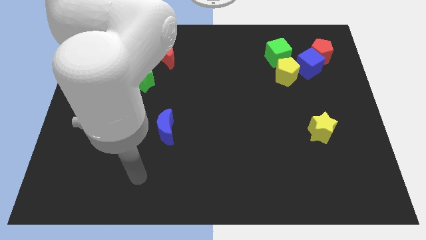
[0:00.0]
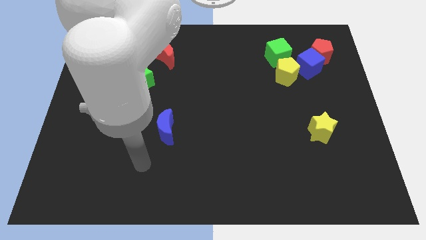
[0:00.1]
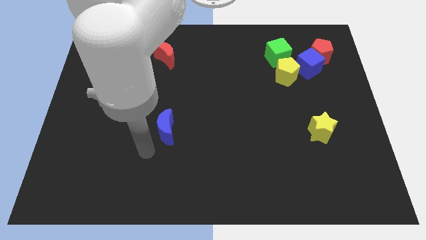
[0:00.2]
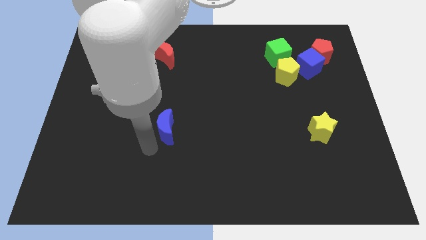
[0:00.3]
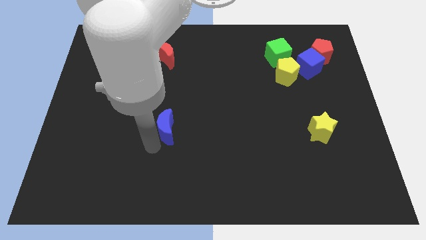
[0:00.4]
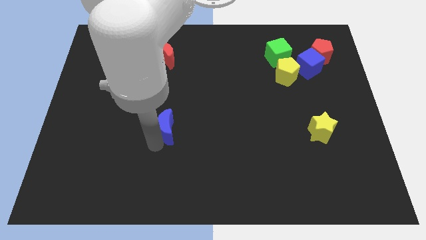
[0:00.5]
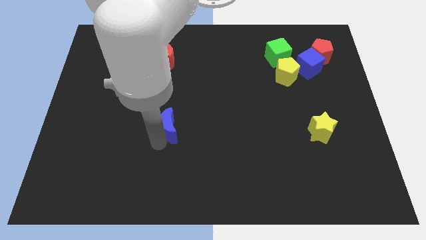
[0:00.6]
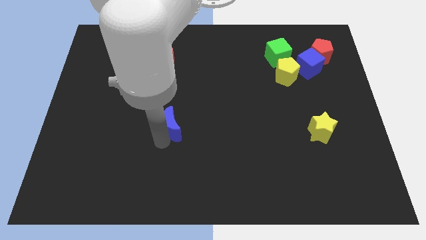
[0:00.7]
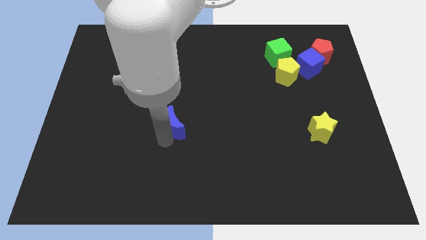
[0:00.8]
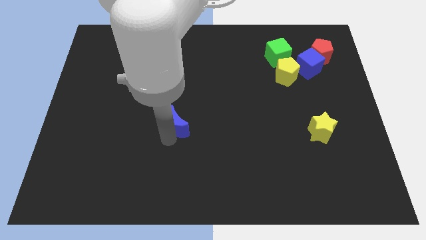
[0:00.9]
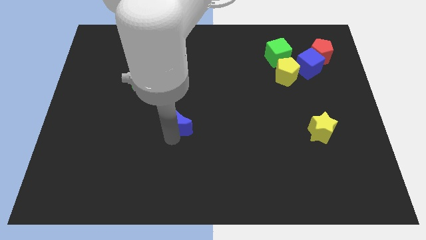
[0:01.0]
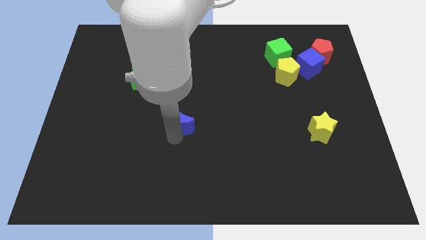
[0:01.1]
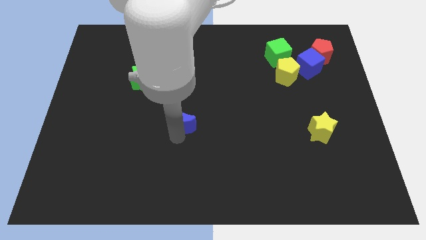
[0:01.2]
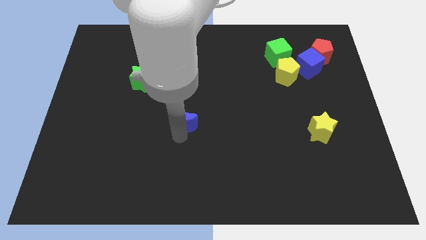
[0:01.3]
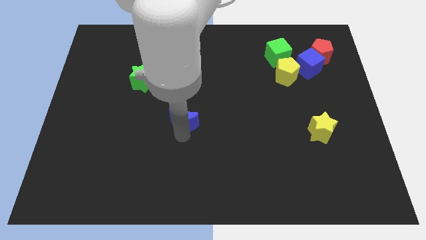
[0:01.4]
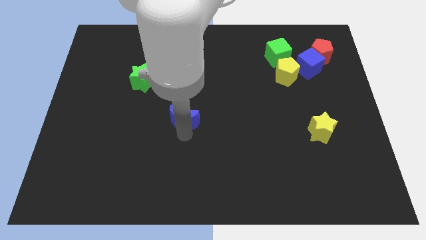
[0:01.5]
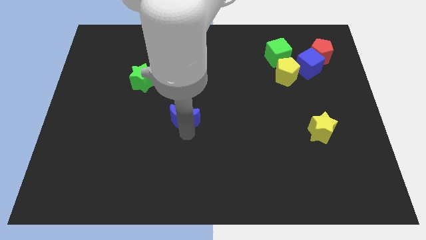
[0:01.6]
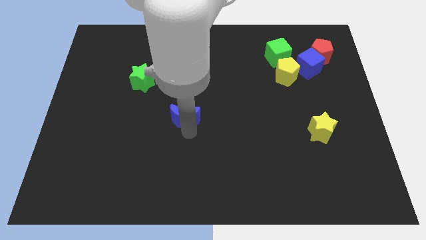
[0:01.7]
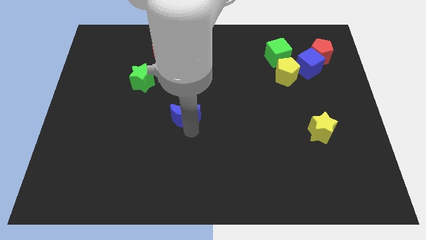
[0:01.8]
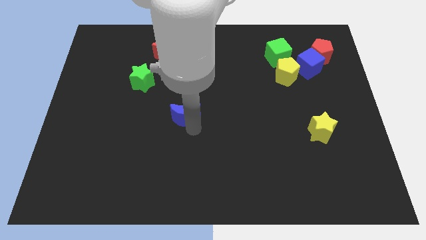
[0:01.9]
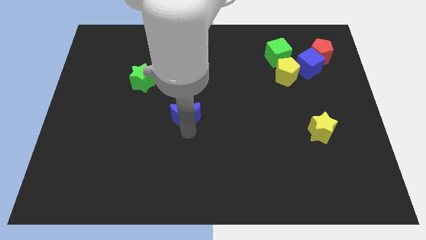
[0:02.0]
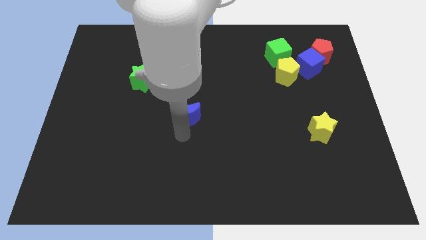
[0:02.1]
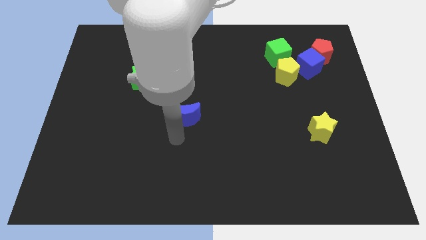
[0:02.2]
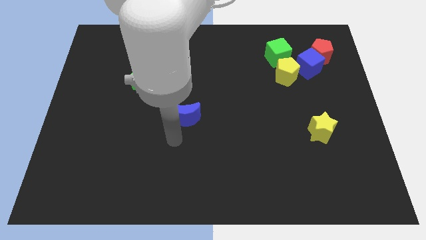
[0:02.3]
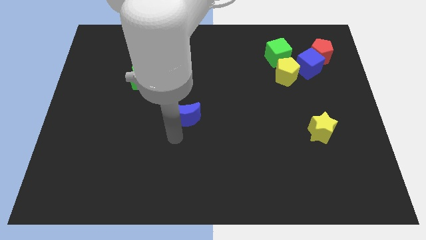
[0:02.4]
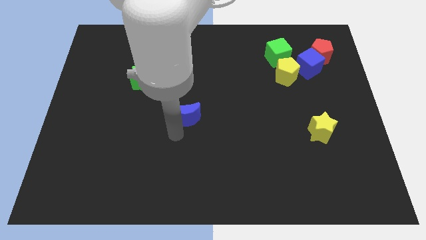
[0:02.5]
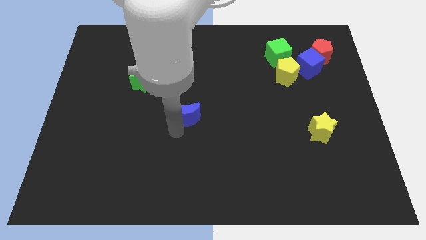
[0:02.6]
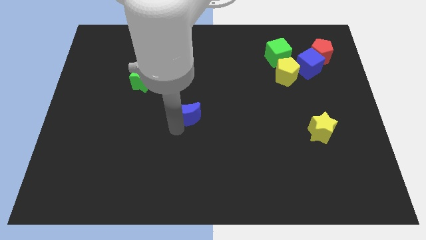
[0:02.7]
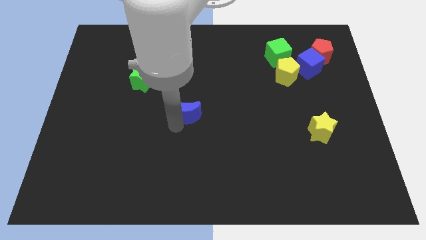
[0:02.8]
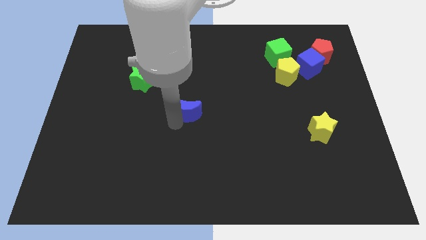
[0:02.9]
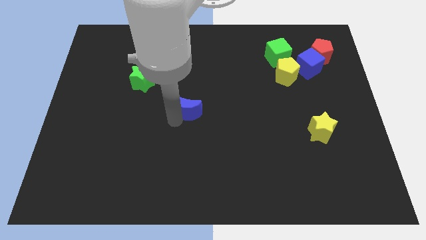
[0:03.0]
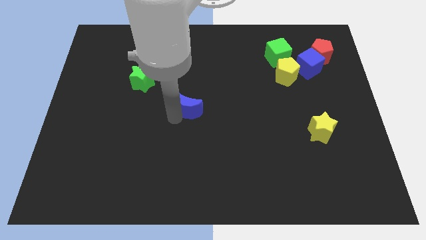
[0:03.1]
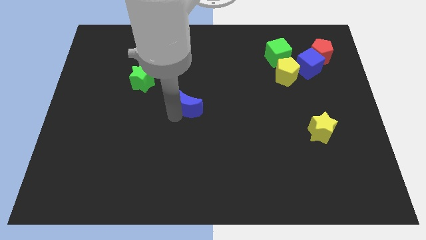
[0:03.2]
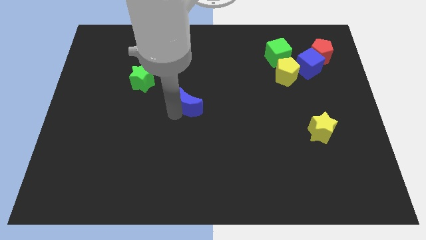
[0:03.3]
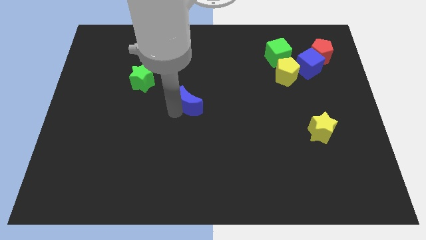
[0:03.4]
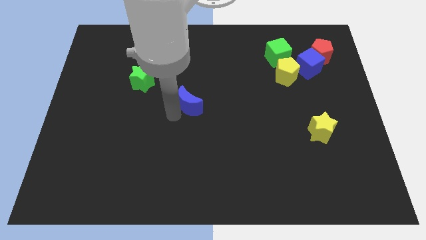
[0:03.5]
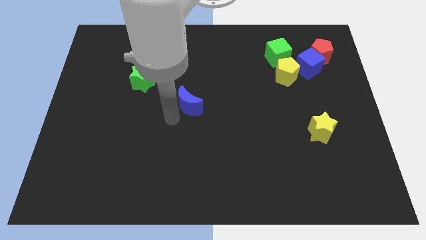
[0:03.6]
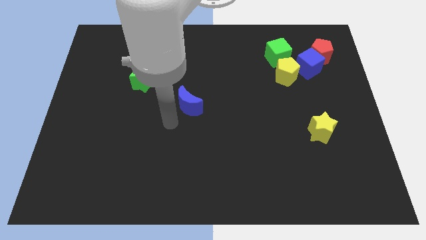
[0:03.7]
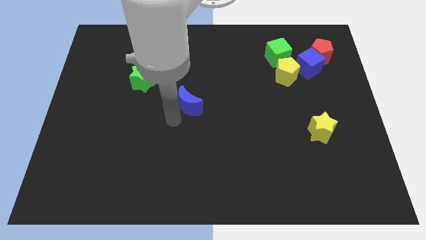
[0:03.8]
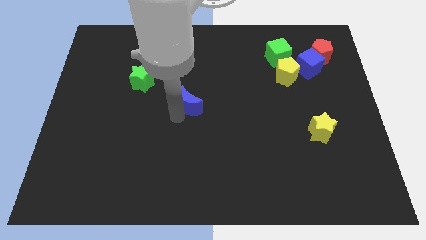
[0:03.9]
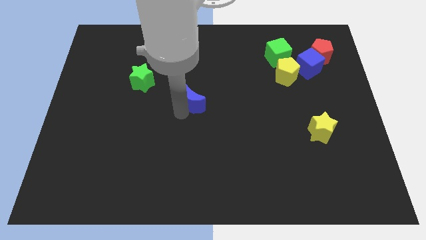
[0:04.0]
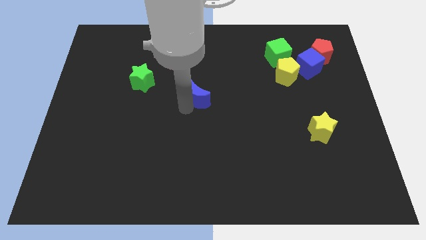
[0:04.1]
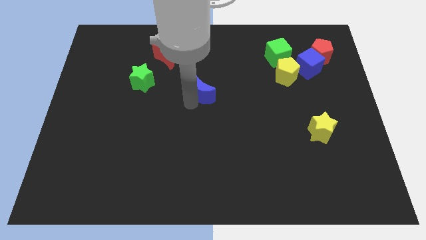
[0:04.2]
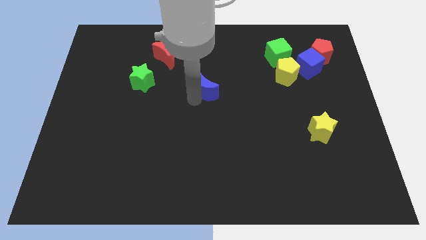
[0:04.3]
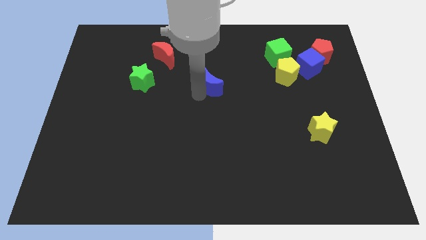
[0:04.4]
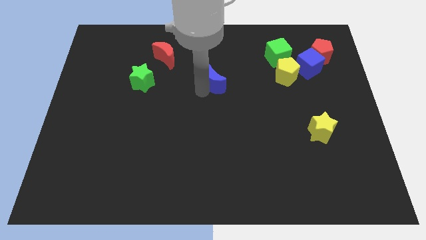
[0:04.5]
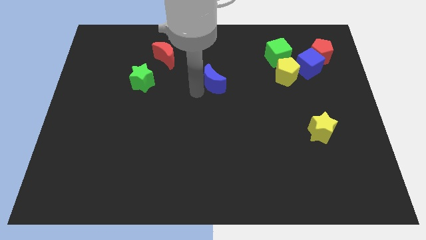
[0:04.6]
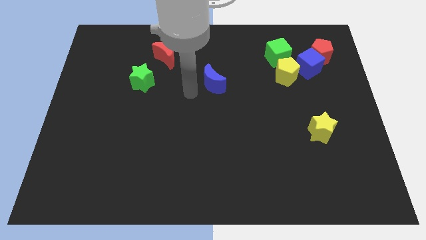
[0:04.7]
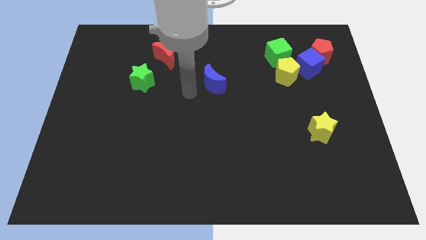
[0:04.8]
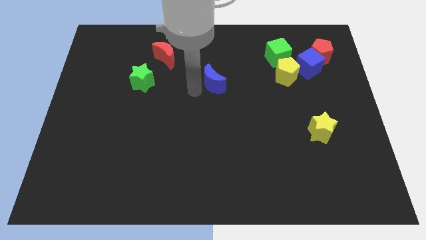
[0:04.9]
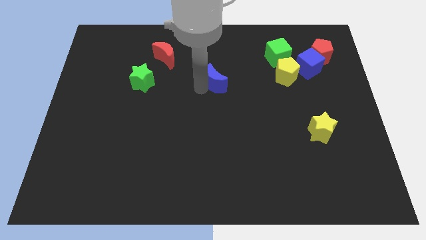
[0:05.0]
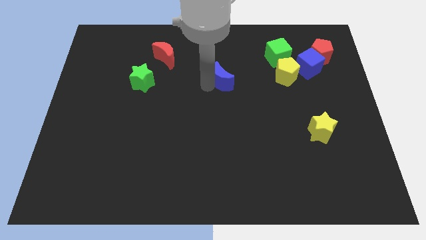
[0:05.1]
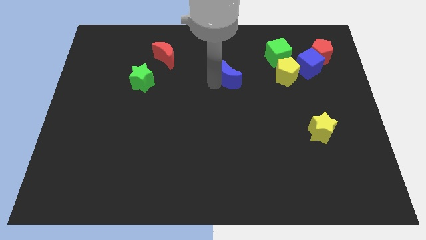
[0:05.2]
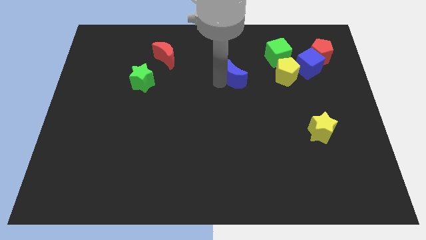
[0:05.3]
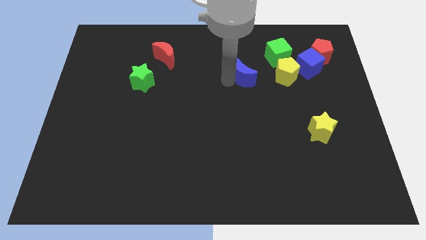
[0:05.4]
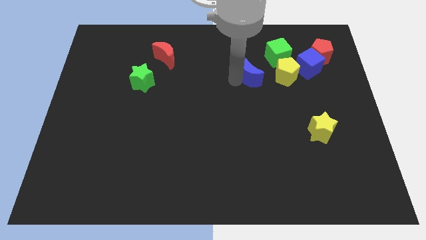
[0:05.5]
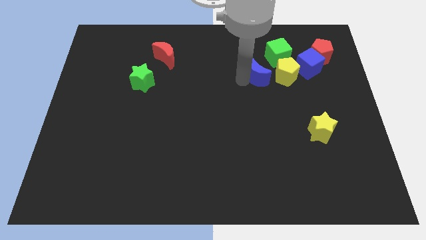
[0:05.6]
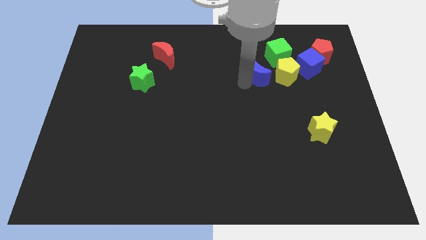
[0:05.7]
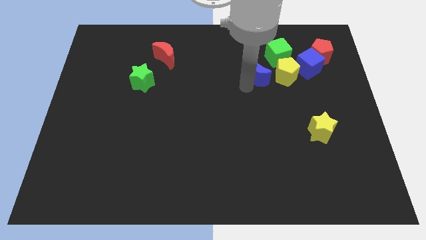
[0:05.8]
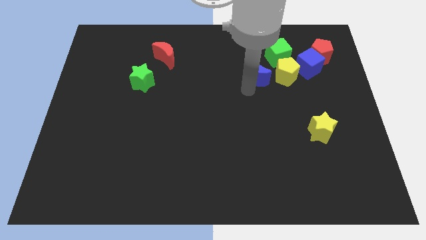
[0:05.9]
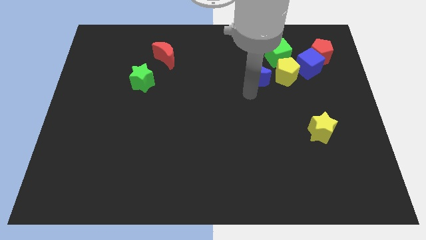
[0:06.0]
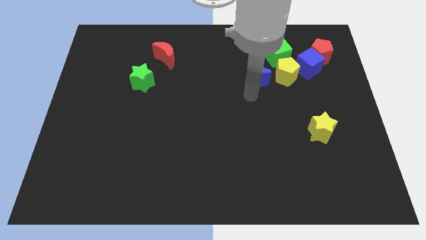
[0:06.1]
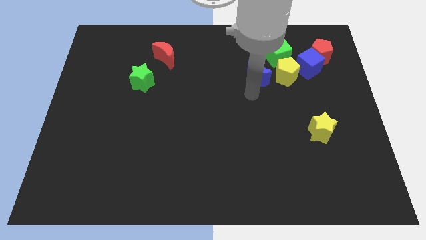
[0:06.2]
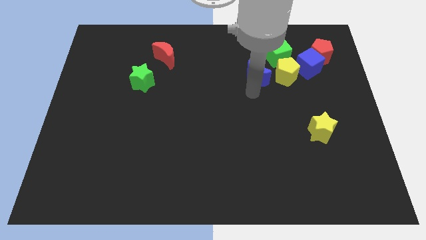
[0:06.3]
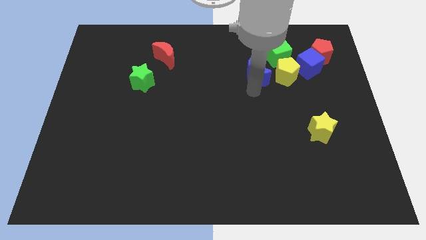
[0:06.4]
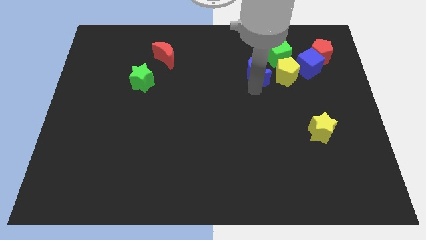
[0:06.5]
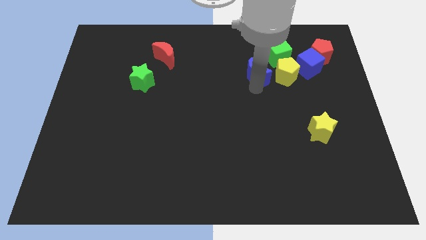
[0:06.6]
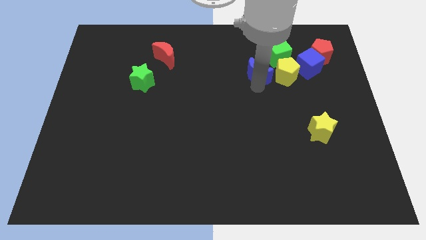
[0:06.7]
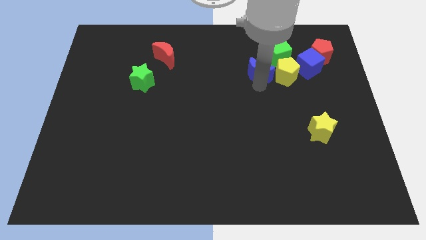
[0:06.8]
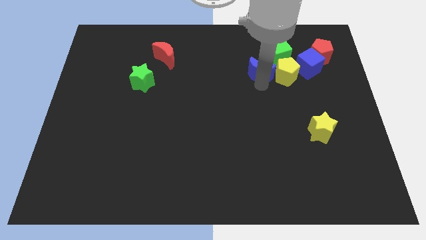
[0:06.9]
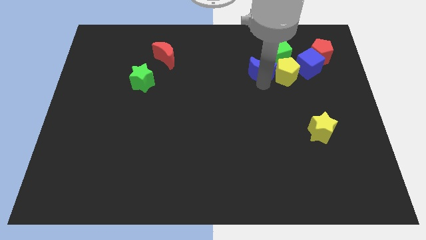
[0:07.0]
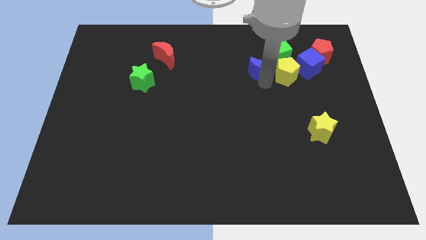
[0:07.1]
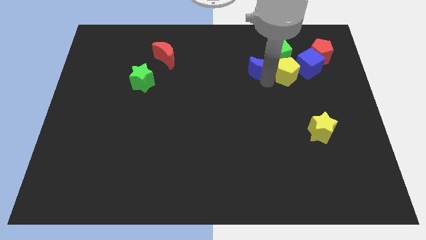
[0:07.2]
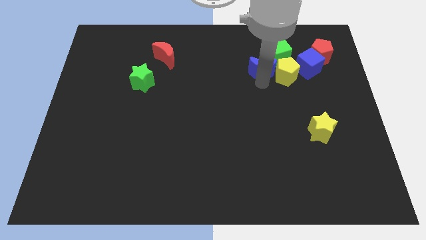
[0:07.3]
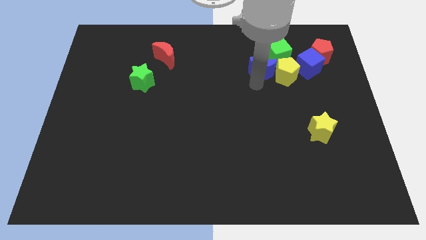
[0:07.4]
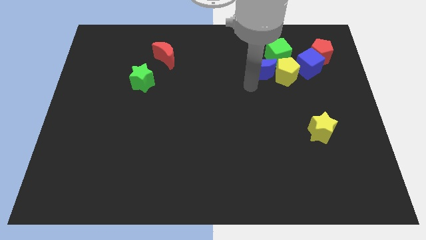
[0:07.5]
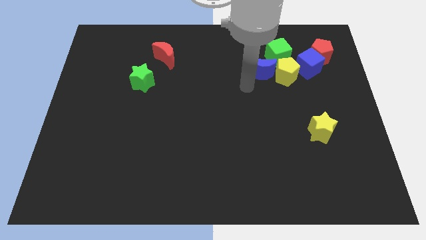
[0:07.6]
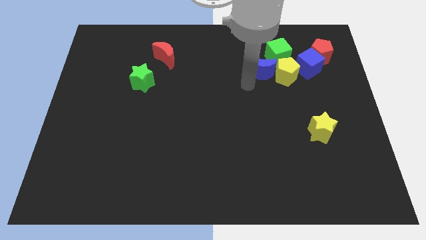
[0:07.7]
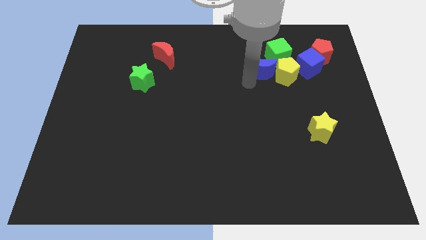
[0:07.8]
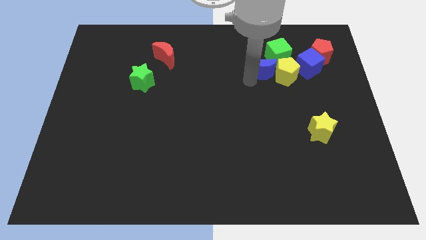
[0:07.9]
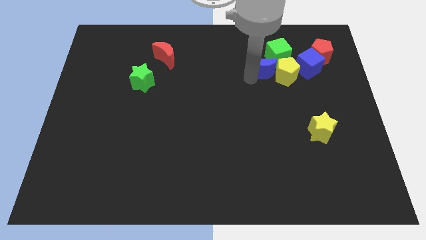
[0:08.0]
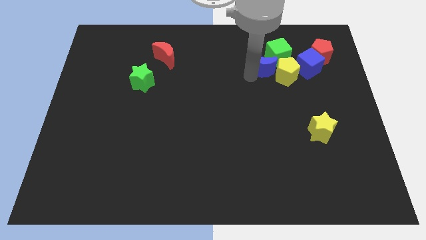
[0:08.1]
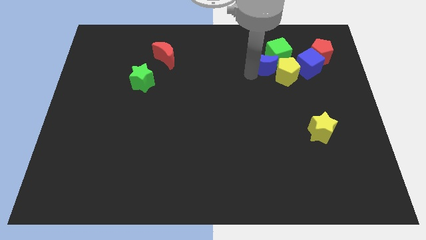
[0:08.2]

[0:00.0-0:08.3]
slide the blue moon next to the green cube
